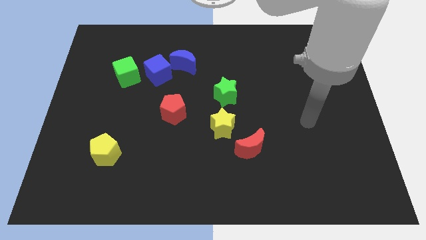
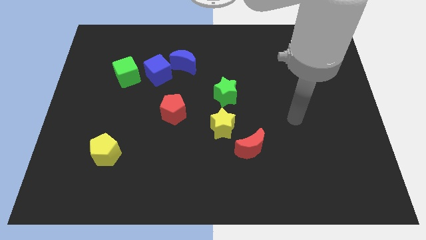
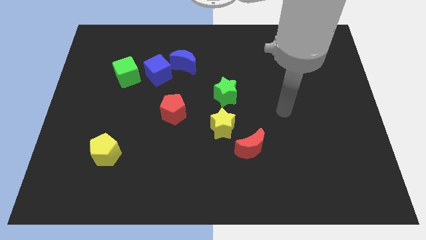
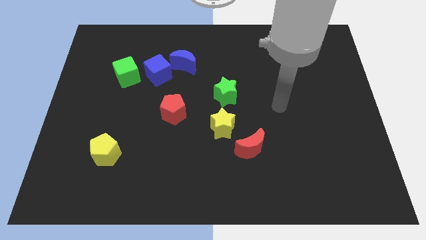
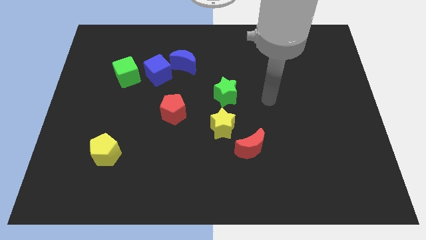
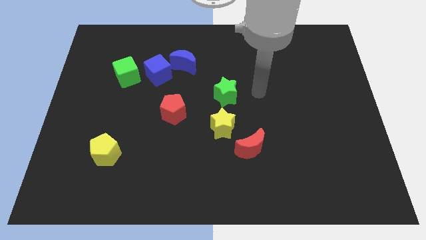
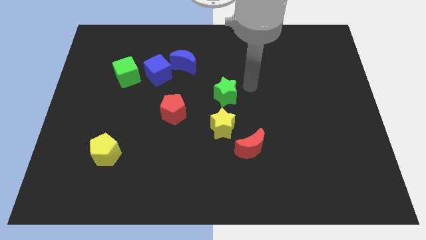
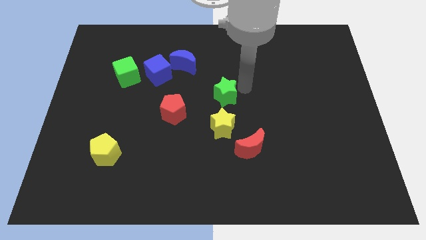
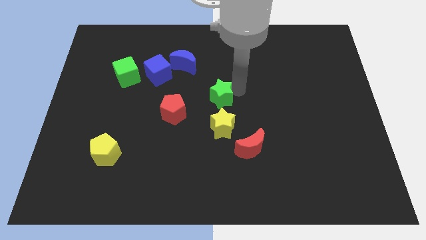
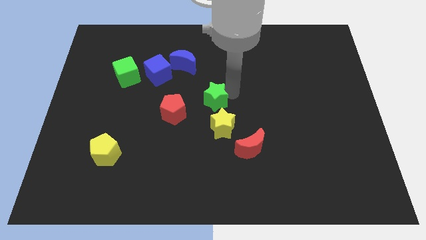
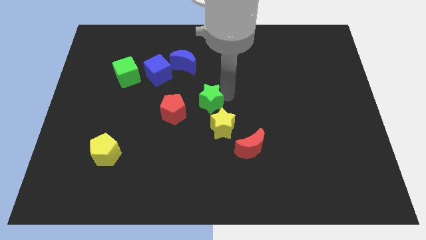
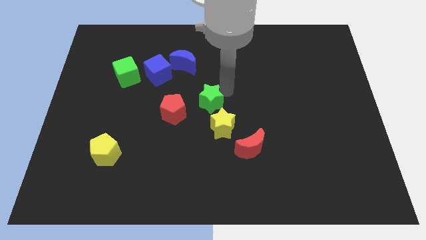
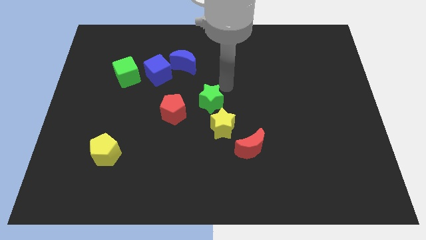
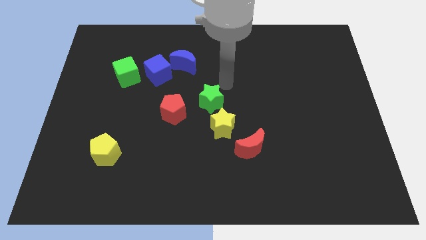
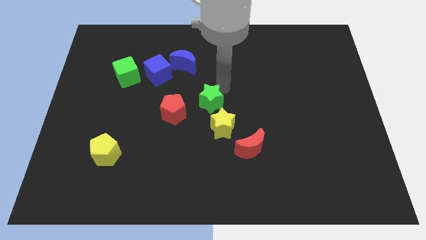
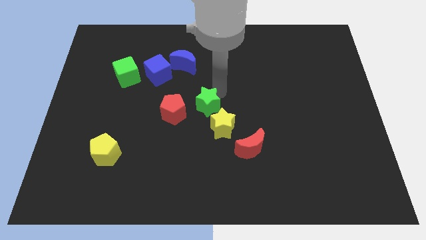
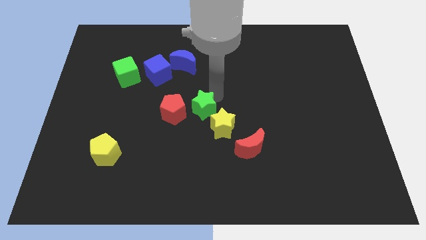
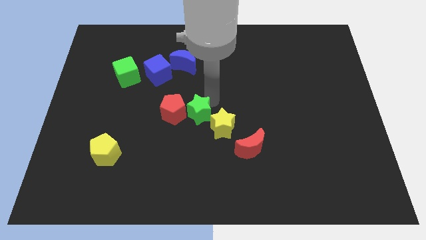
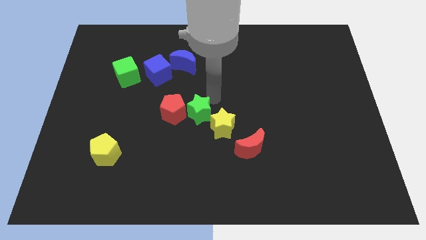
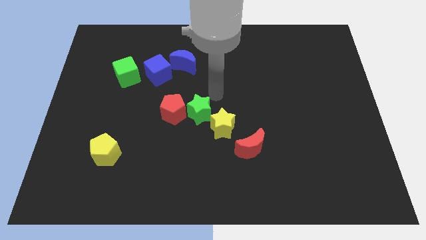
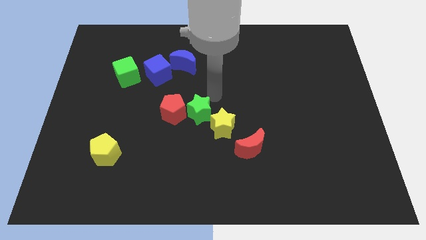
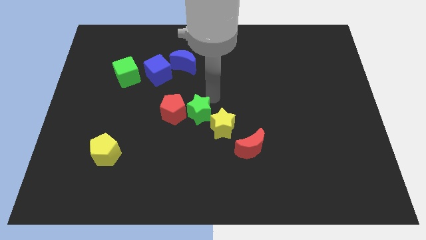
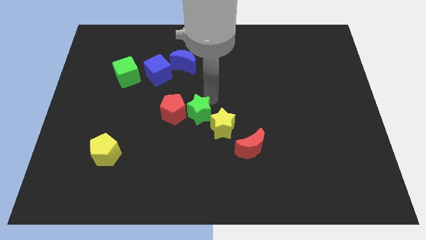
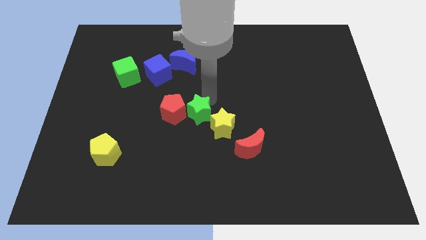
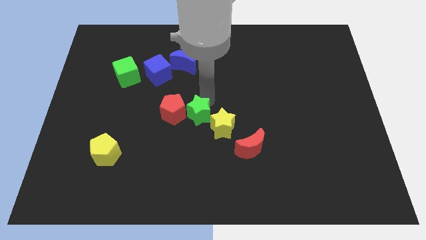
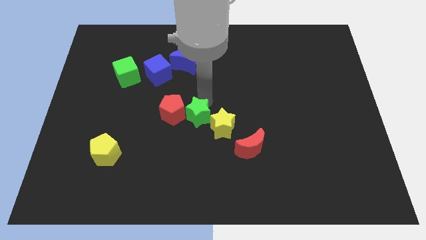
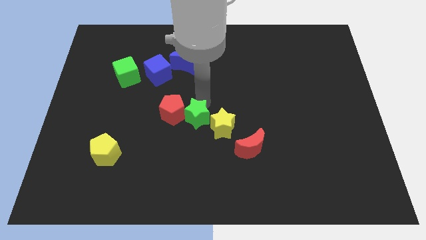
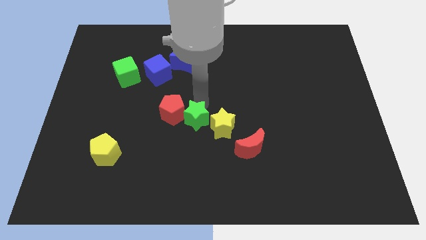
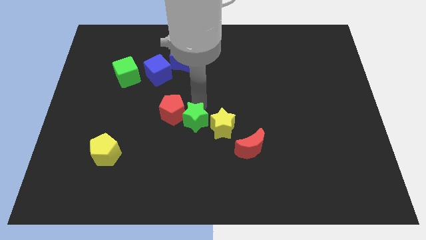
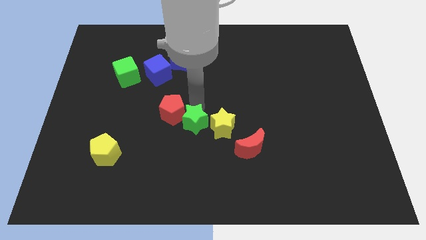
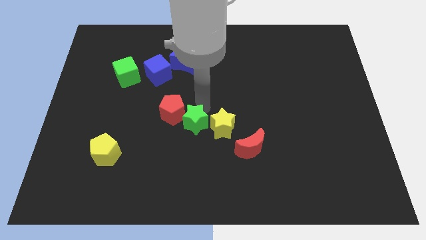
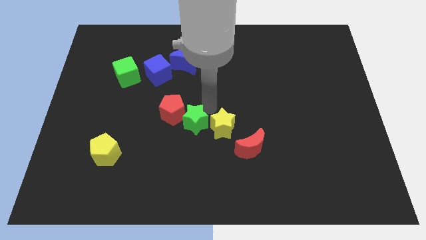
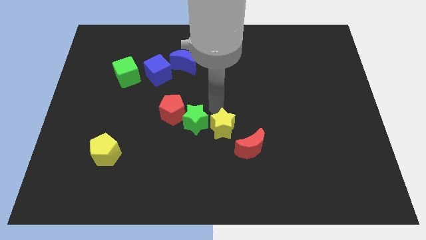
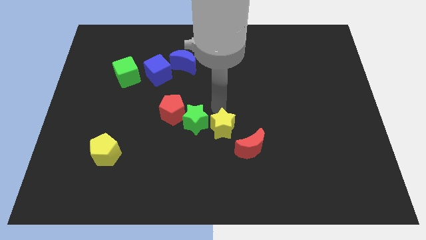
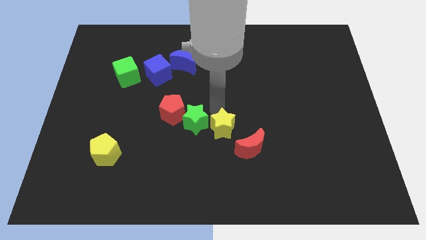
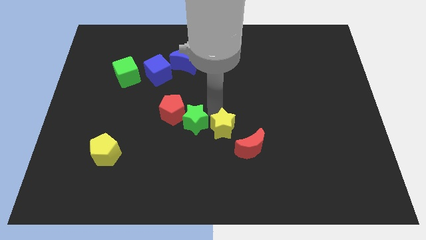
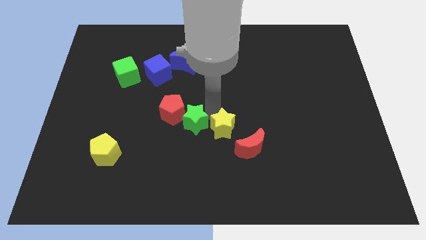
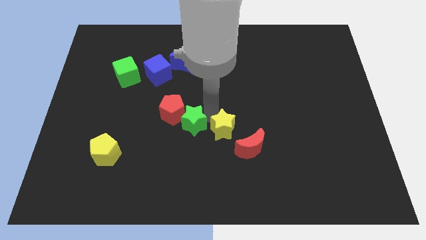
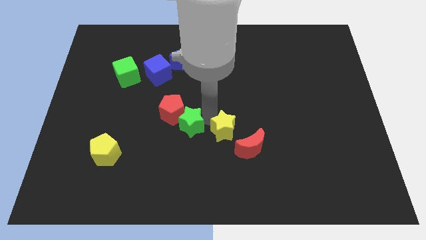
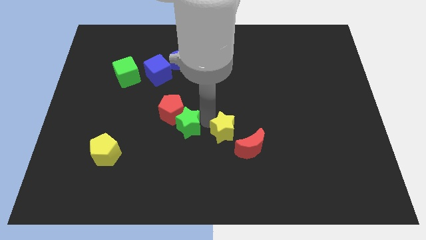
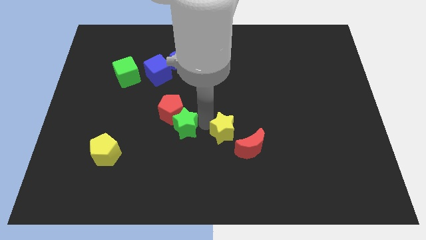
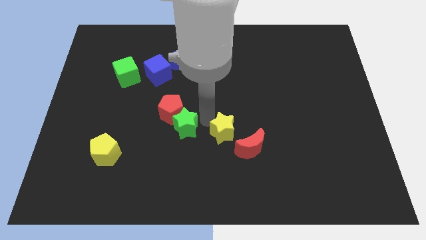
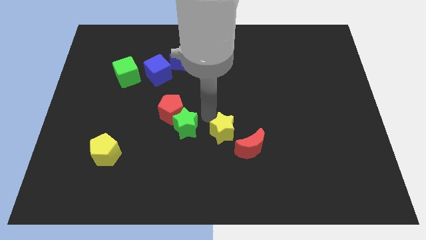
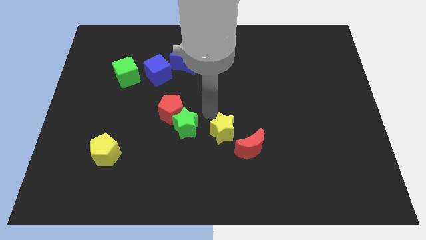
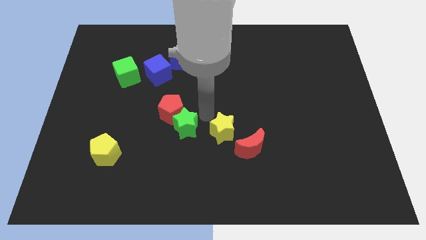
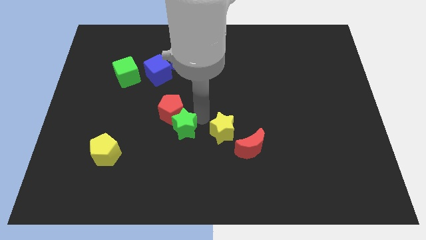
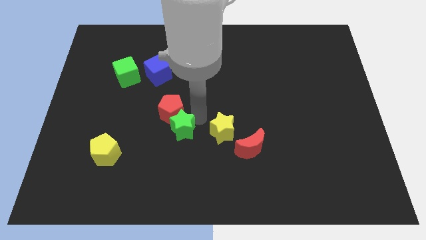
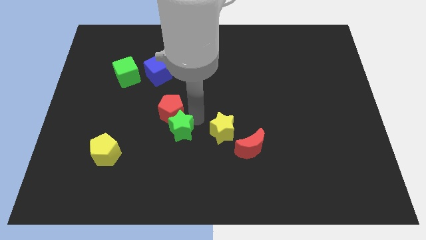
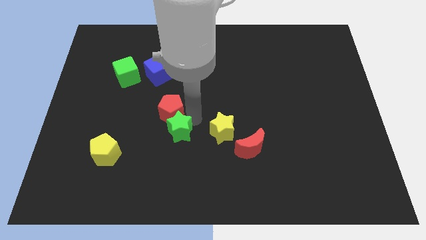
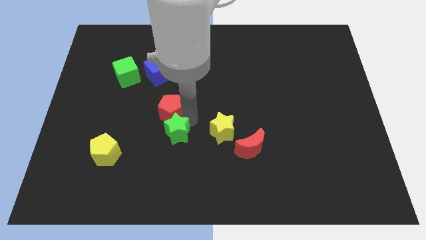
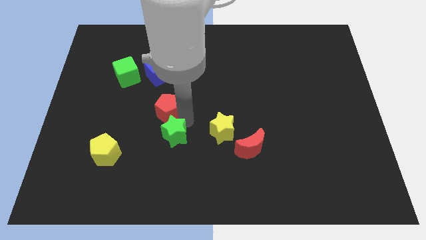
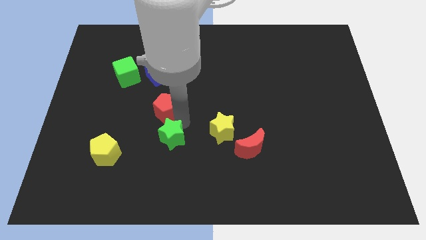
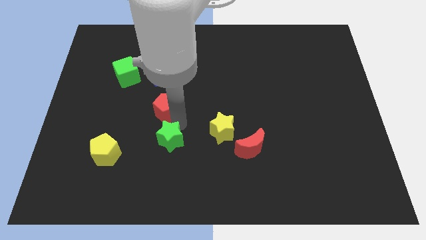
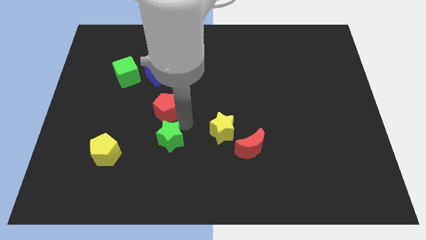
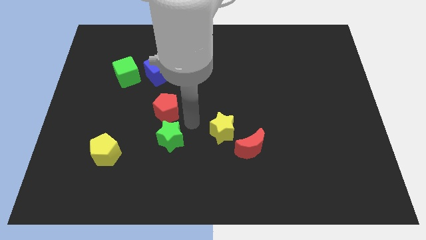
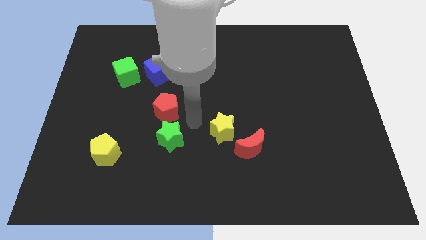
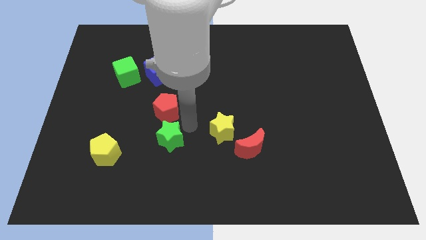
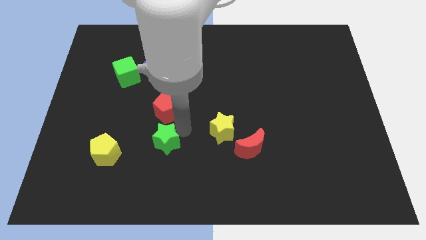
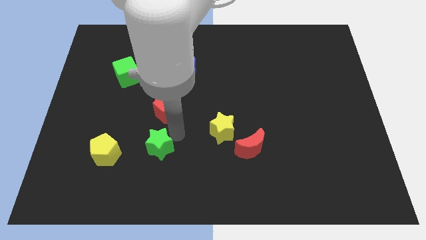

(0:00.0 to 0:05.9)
move the green star downwards and left

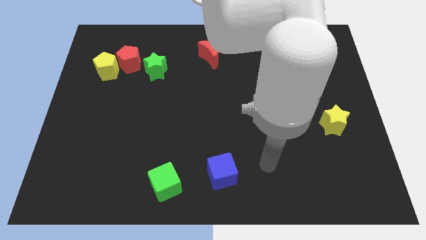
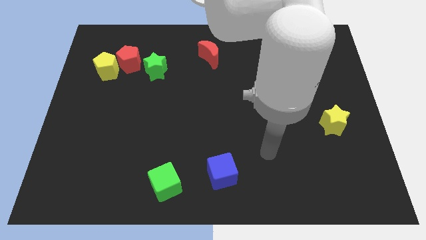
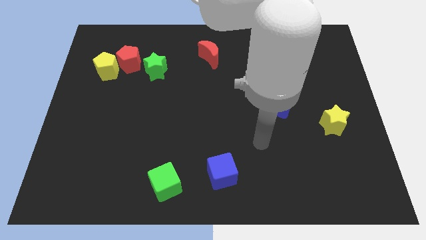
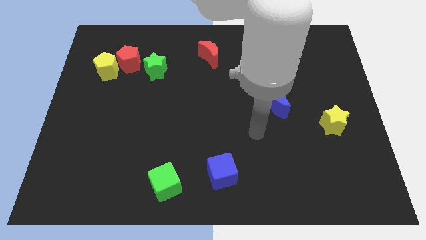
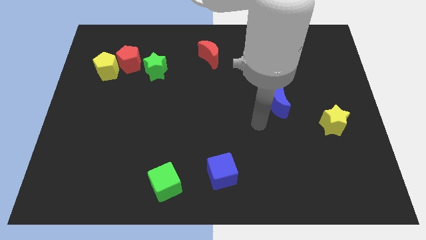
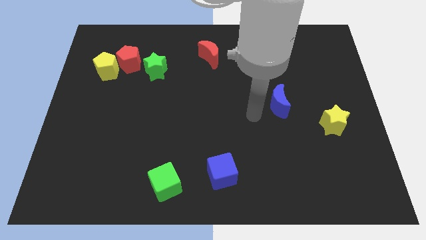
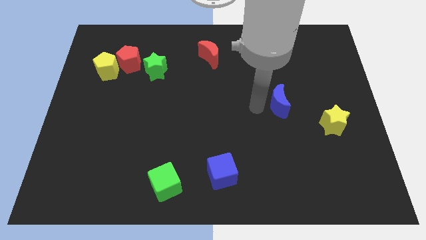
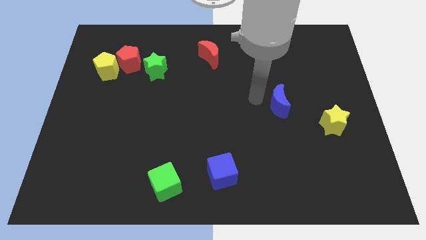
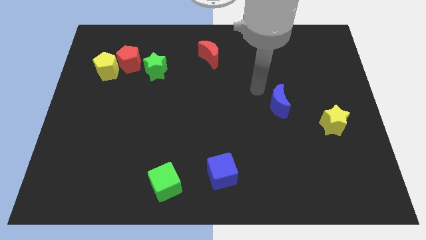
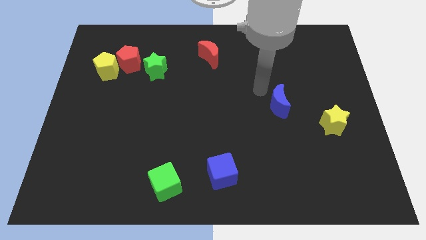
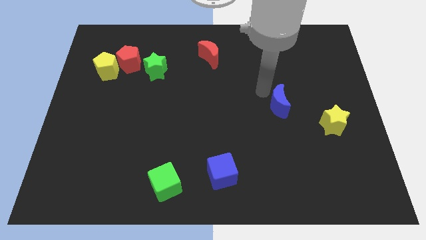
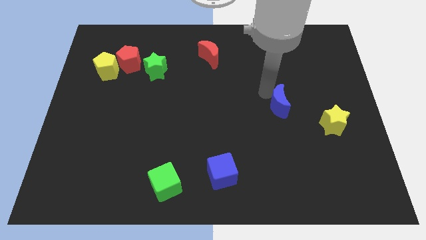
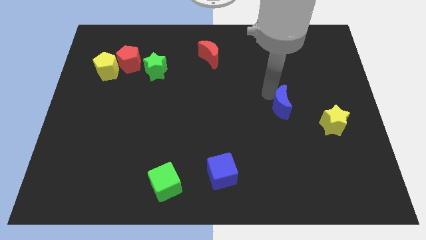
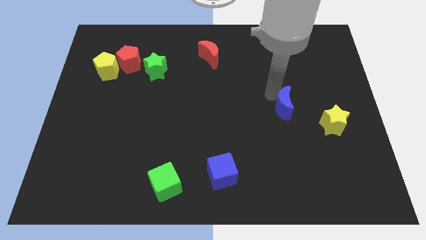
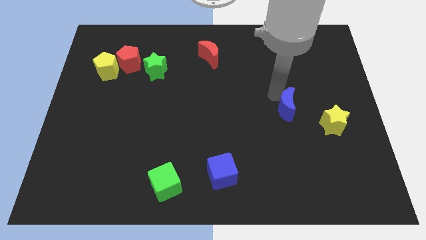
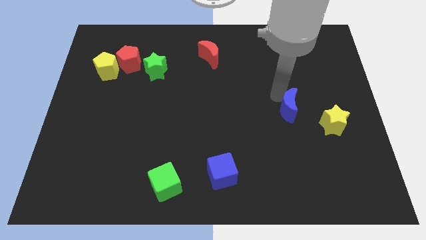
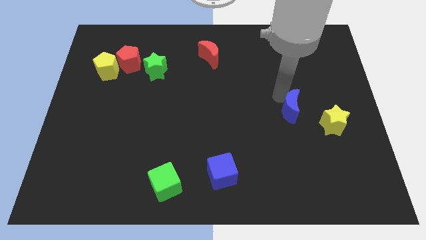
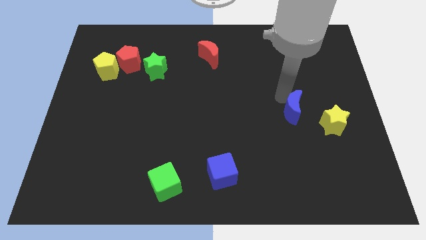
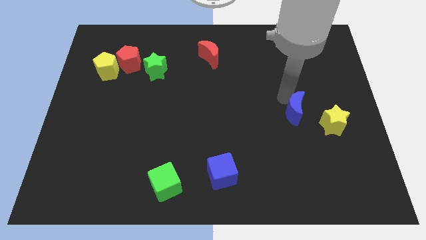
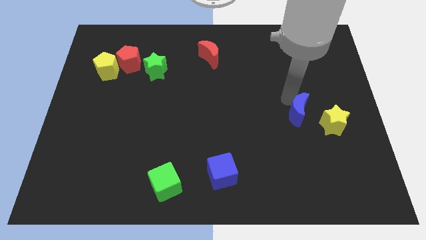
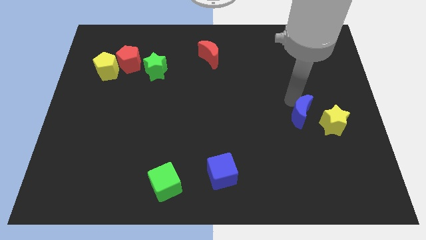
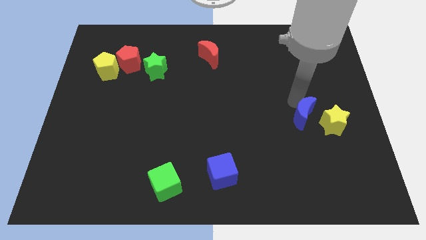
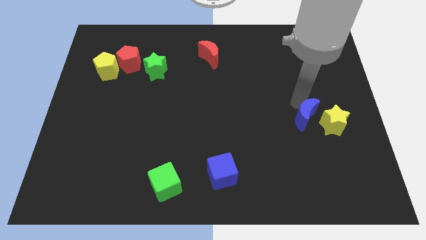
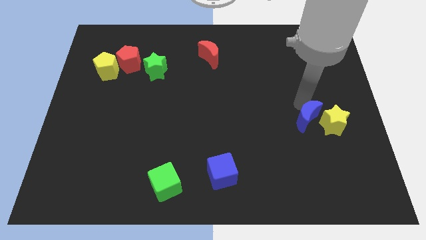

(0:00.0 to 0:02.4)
slightly slide the blue moon down and then right
